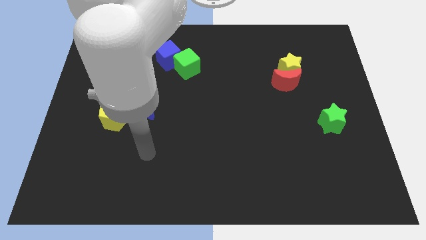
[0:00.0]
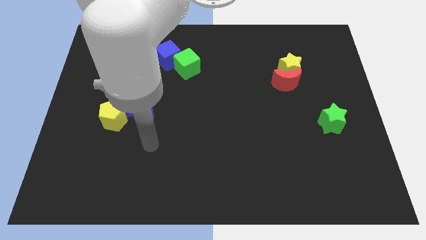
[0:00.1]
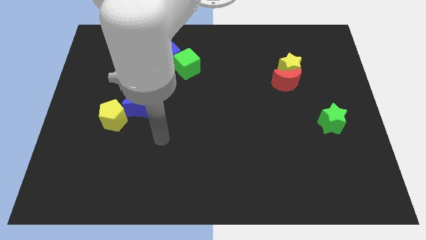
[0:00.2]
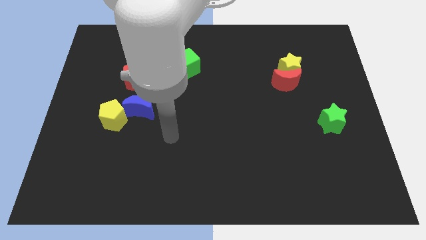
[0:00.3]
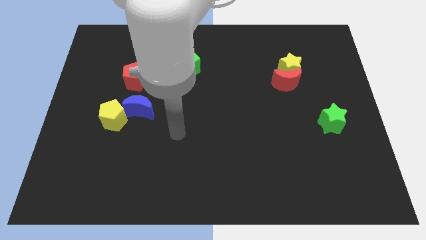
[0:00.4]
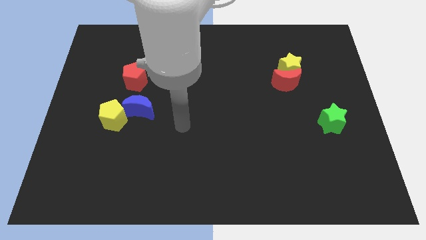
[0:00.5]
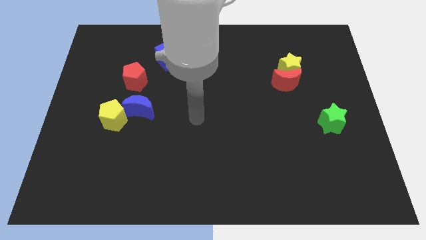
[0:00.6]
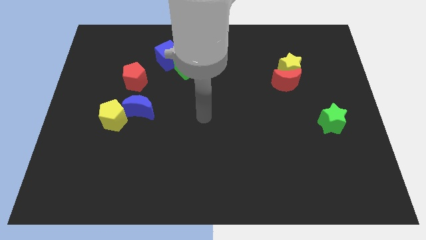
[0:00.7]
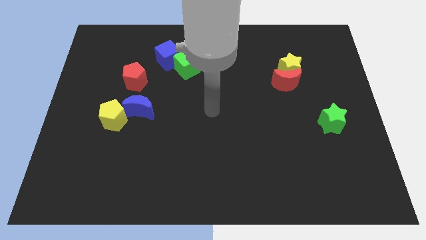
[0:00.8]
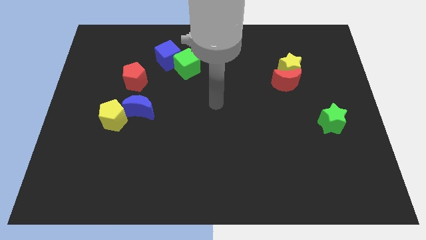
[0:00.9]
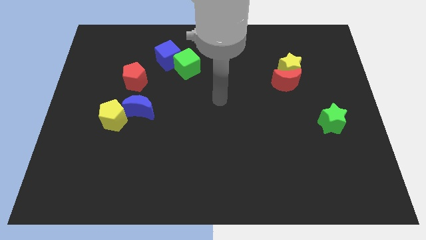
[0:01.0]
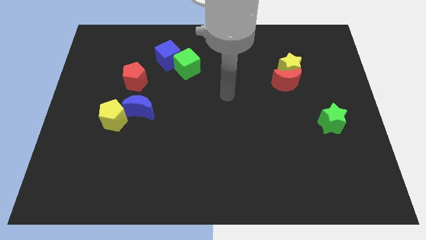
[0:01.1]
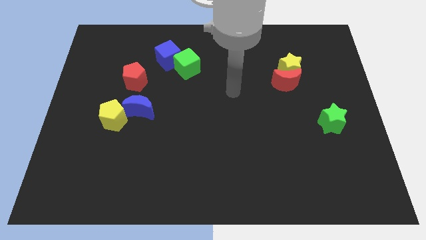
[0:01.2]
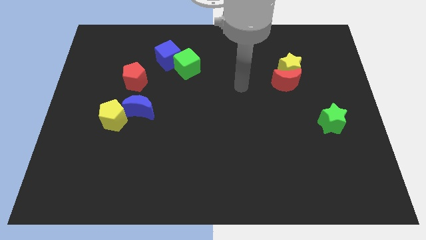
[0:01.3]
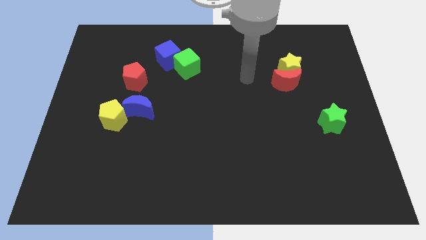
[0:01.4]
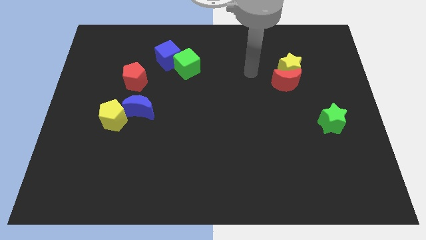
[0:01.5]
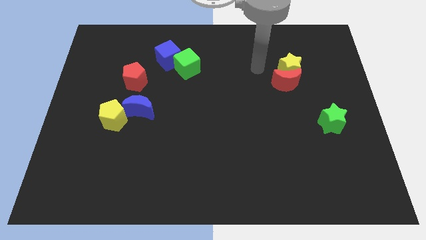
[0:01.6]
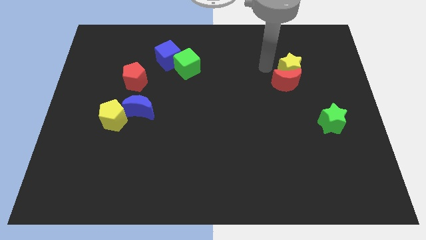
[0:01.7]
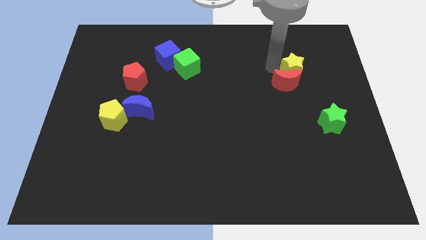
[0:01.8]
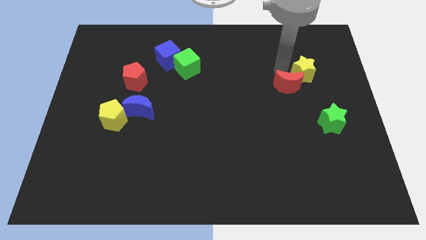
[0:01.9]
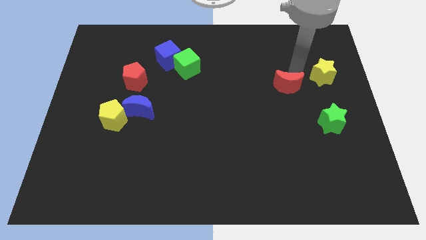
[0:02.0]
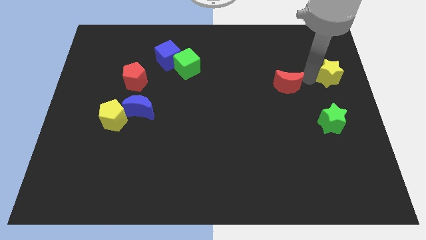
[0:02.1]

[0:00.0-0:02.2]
move the red moon away from the yellow star

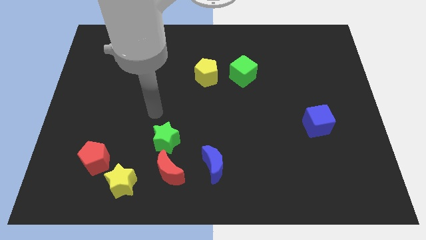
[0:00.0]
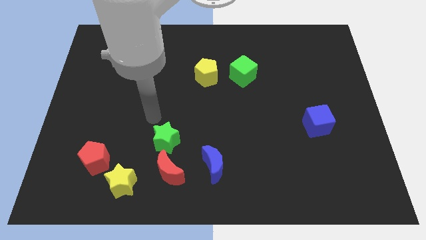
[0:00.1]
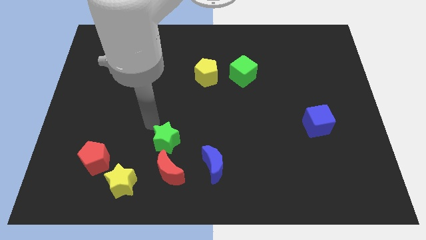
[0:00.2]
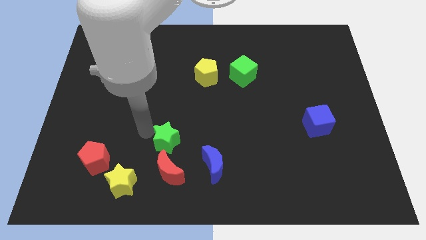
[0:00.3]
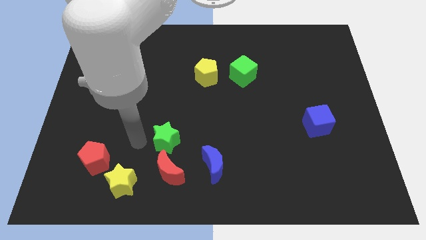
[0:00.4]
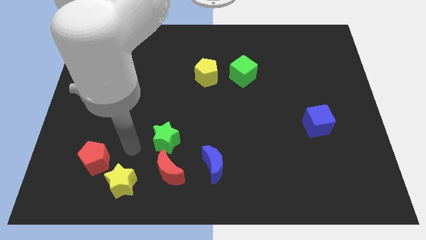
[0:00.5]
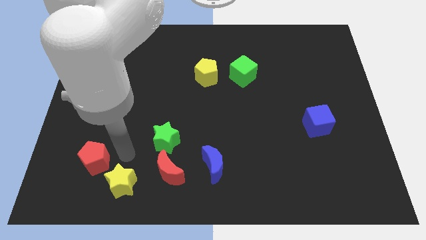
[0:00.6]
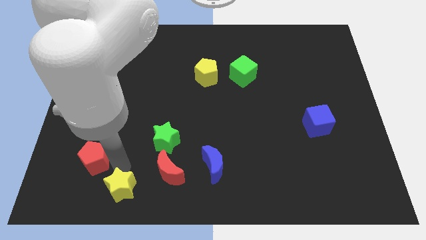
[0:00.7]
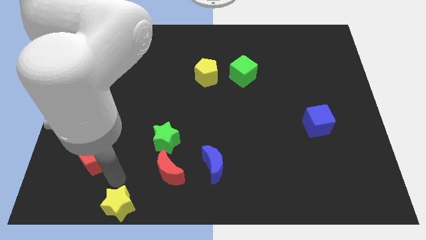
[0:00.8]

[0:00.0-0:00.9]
pull the red pentagon apart from the yellow star

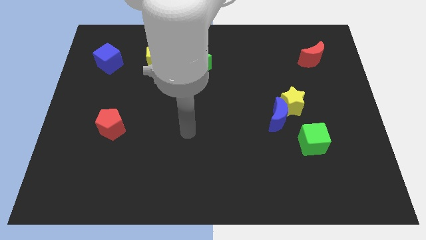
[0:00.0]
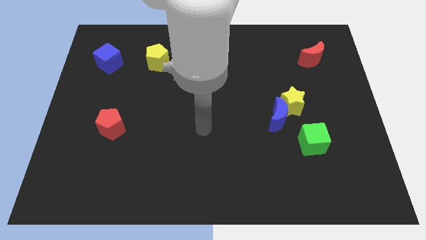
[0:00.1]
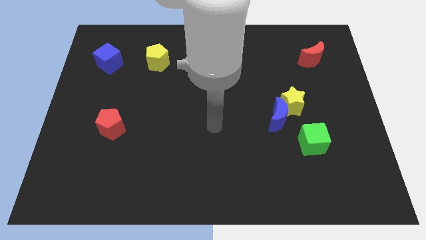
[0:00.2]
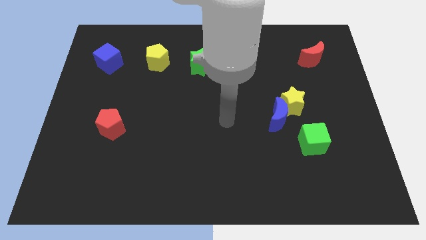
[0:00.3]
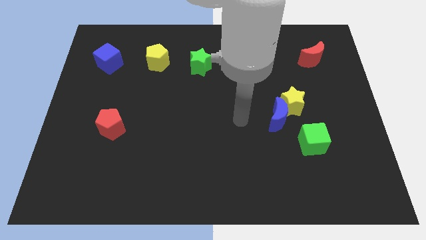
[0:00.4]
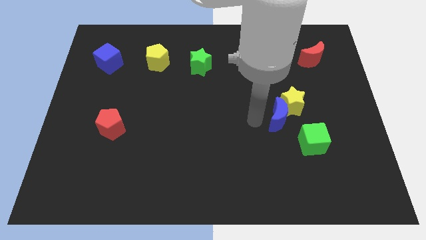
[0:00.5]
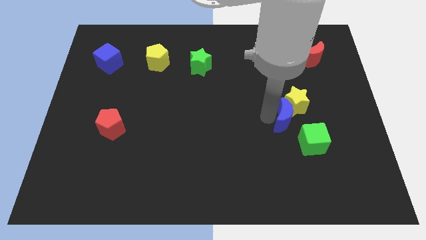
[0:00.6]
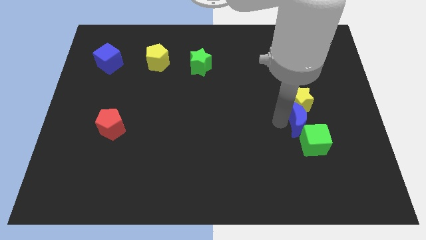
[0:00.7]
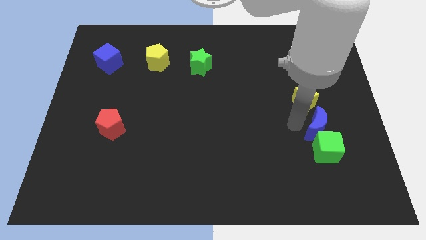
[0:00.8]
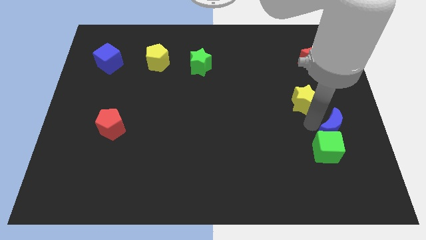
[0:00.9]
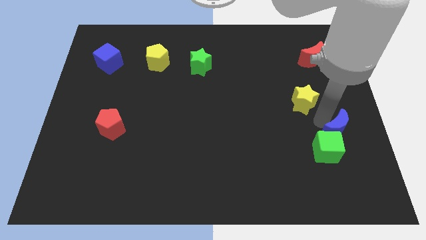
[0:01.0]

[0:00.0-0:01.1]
separate the yellow star from the blue moon

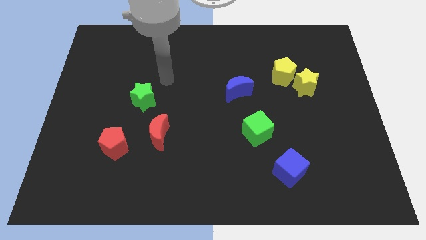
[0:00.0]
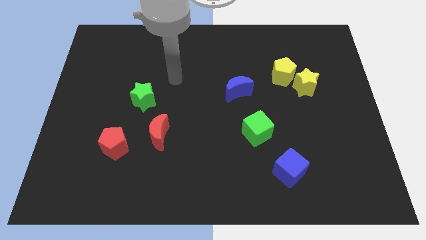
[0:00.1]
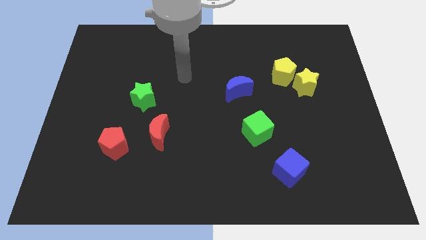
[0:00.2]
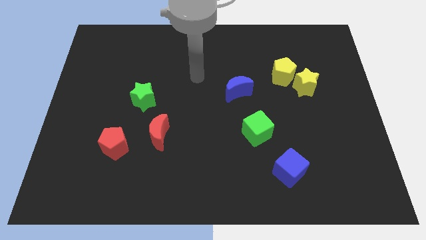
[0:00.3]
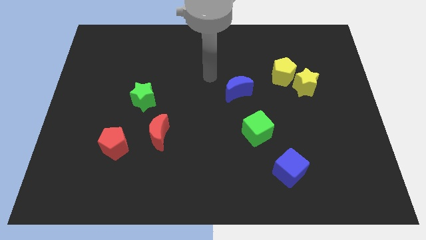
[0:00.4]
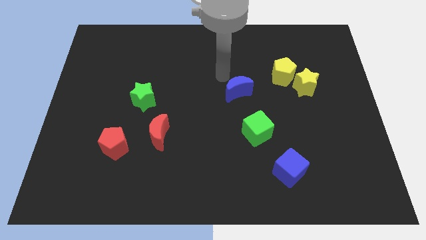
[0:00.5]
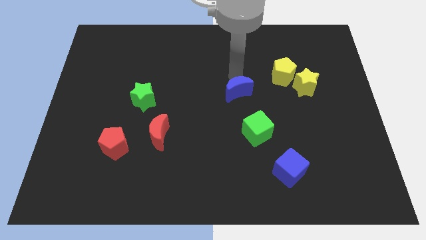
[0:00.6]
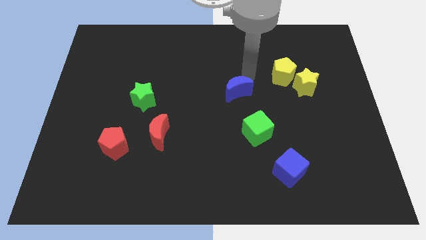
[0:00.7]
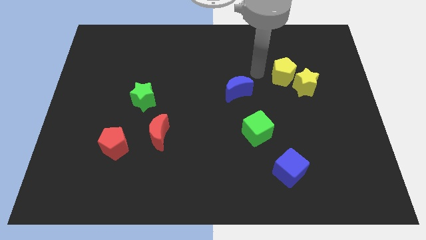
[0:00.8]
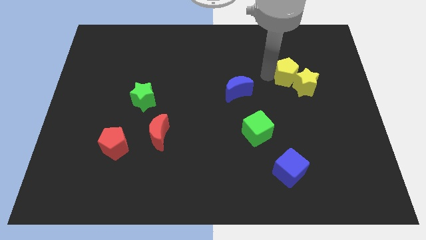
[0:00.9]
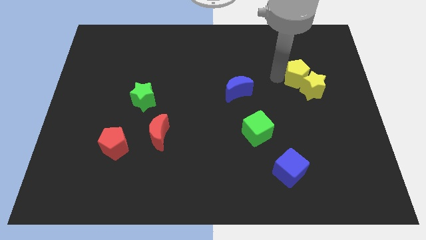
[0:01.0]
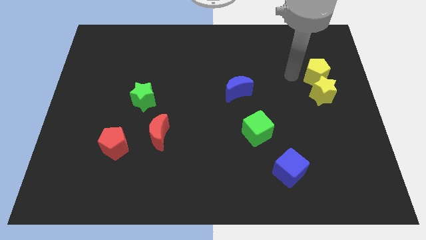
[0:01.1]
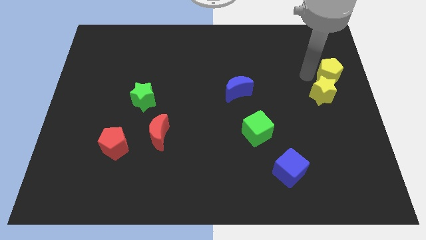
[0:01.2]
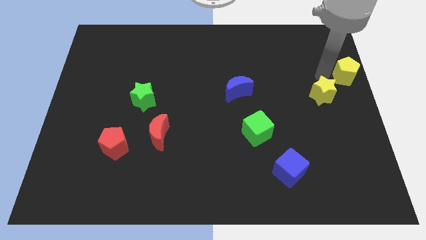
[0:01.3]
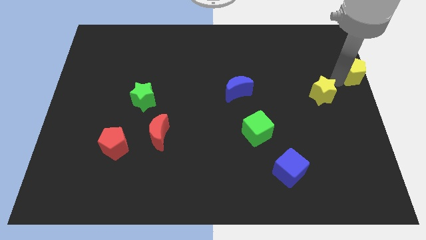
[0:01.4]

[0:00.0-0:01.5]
pull the yellow star apart from the yellow pentagon

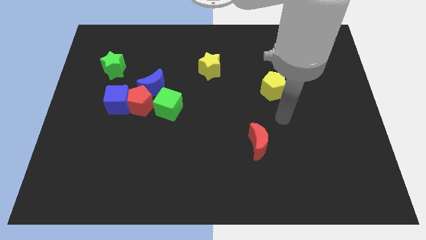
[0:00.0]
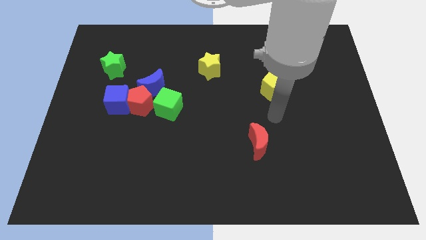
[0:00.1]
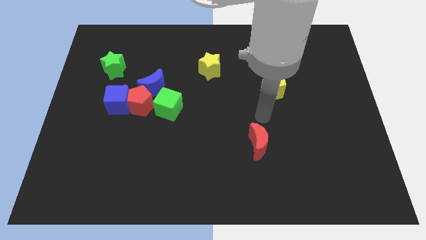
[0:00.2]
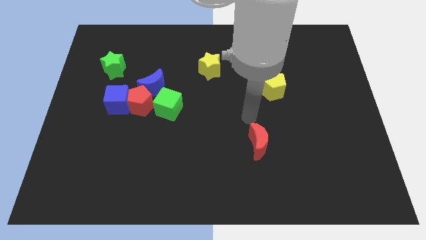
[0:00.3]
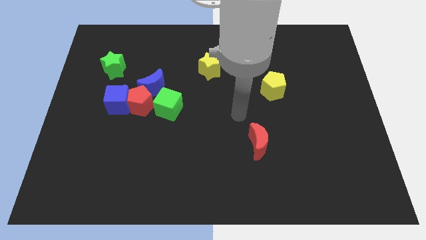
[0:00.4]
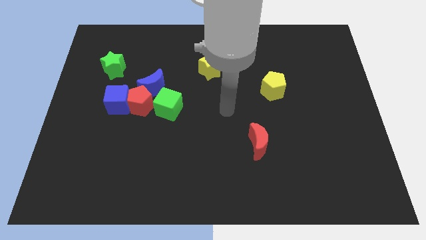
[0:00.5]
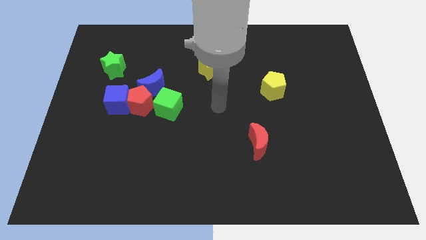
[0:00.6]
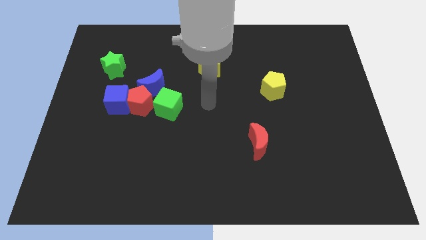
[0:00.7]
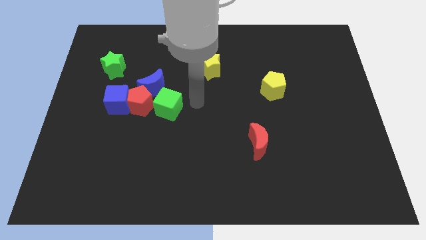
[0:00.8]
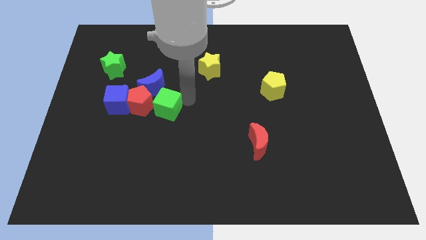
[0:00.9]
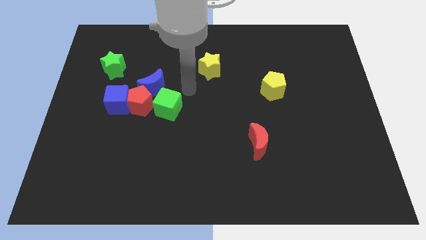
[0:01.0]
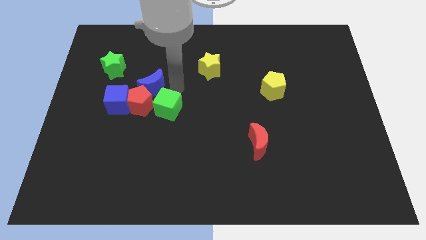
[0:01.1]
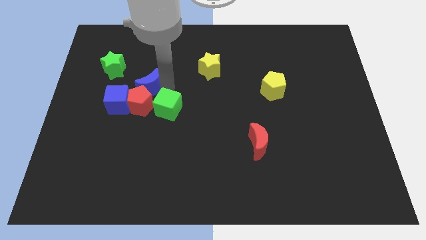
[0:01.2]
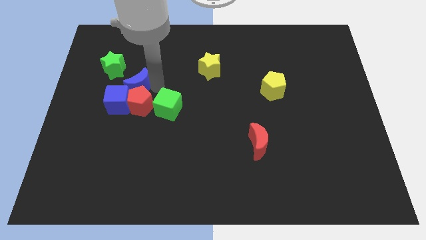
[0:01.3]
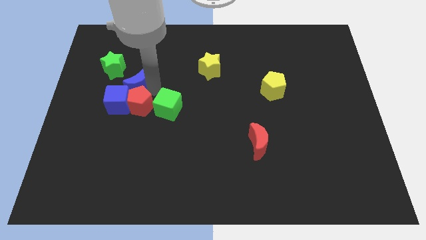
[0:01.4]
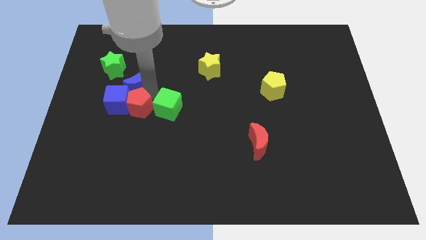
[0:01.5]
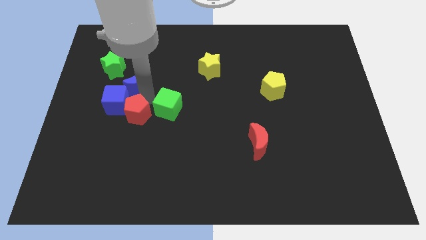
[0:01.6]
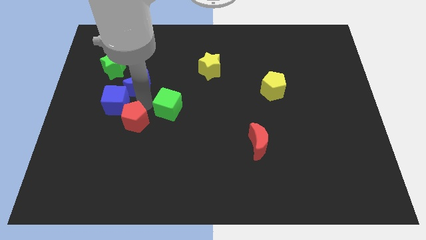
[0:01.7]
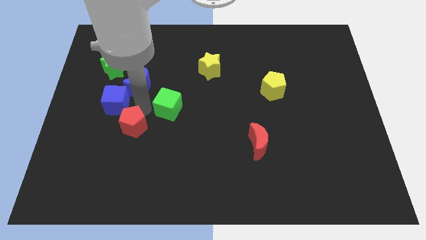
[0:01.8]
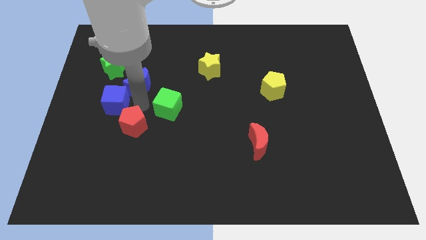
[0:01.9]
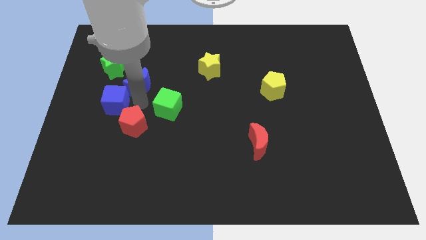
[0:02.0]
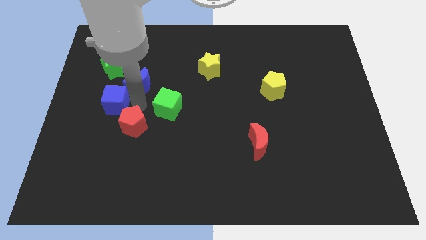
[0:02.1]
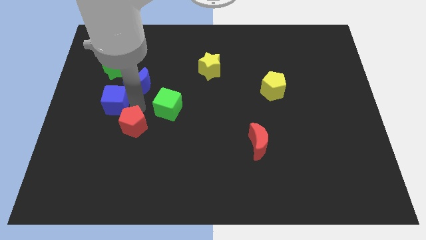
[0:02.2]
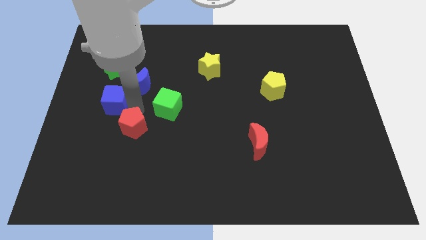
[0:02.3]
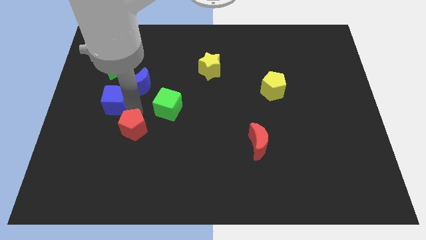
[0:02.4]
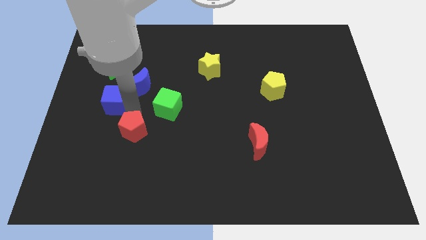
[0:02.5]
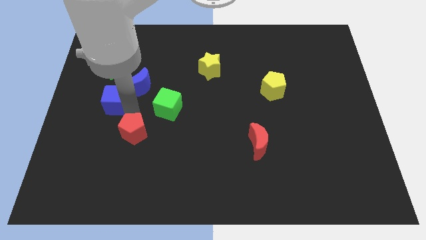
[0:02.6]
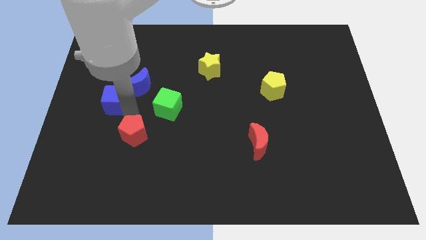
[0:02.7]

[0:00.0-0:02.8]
separate the red pentagon from the group of blocks

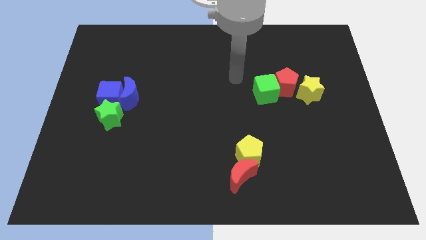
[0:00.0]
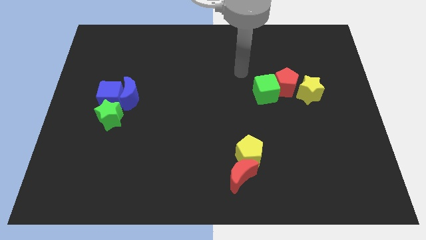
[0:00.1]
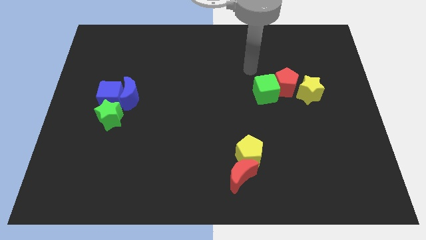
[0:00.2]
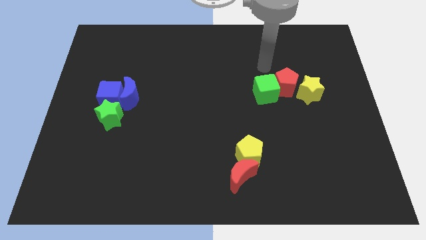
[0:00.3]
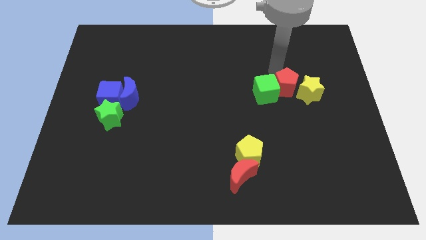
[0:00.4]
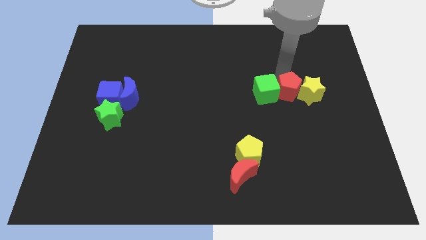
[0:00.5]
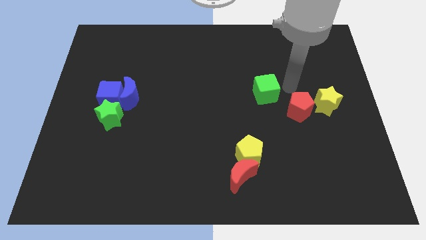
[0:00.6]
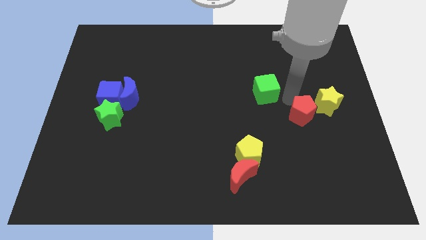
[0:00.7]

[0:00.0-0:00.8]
separate the green cube from the red pentagon
